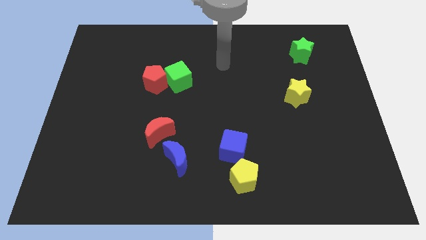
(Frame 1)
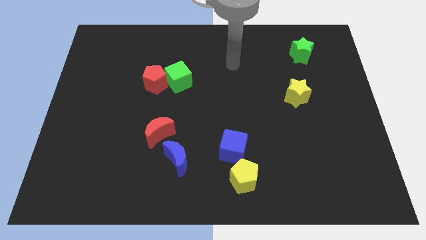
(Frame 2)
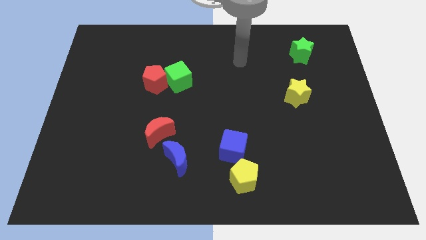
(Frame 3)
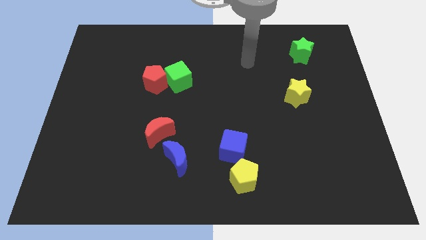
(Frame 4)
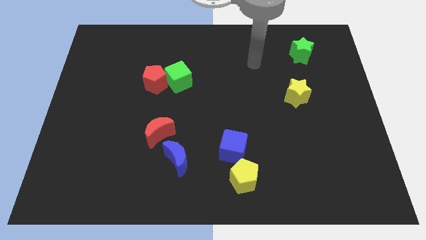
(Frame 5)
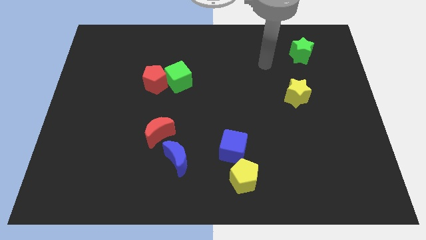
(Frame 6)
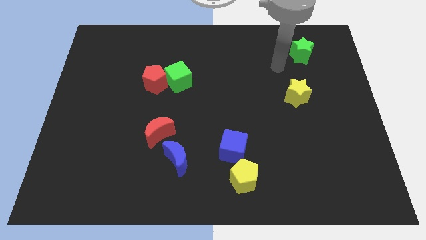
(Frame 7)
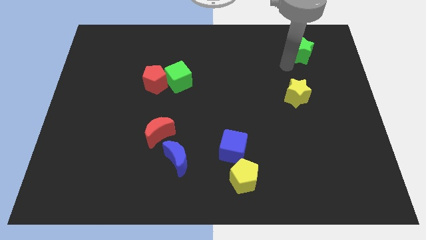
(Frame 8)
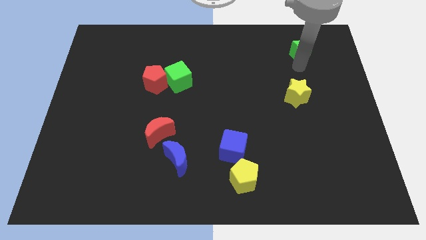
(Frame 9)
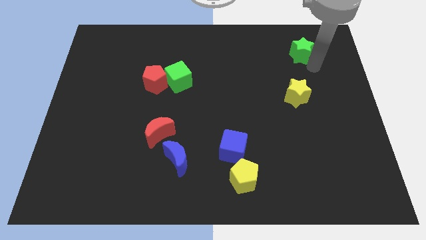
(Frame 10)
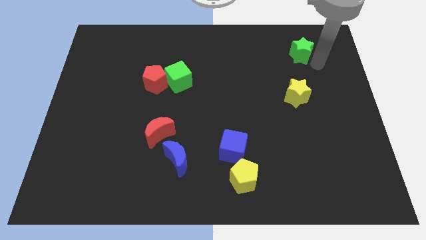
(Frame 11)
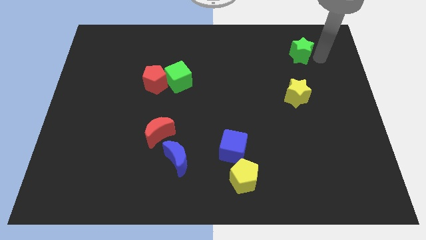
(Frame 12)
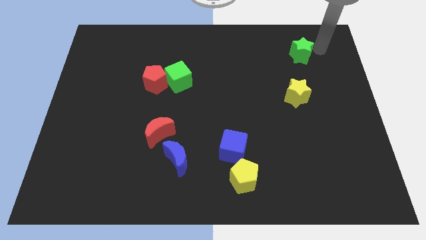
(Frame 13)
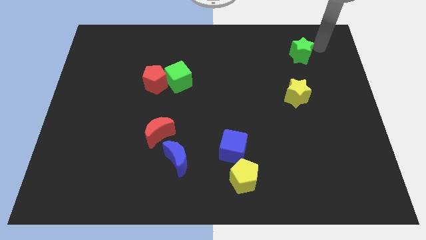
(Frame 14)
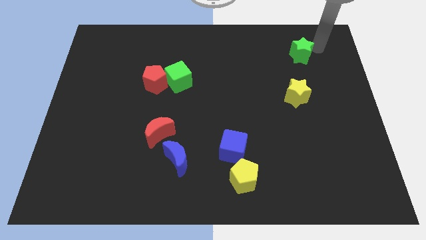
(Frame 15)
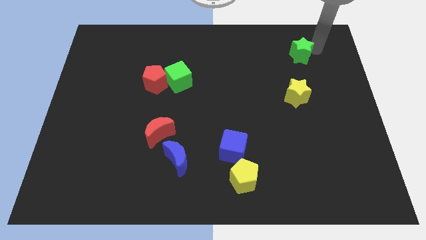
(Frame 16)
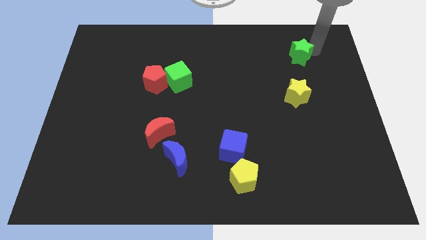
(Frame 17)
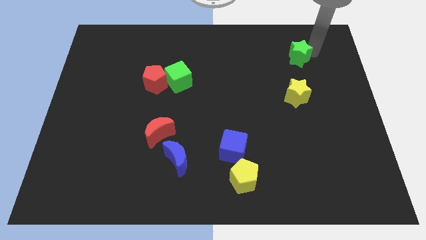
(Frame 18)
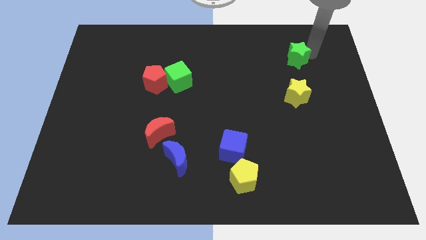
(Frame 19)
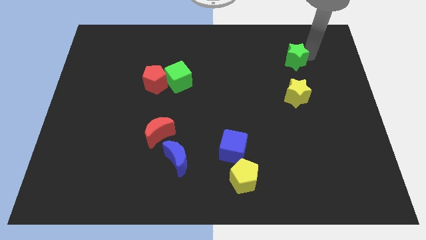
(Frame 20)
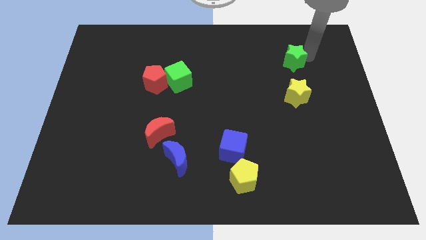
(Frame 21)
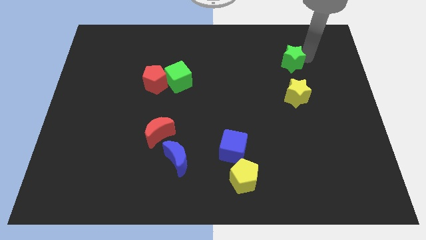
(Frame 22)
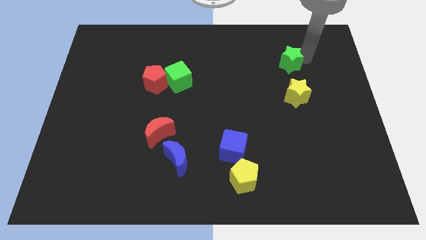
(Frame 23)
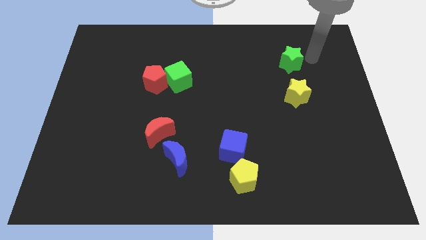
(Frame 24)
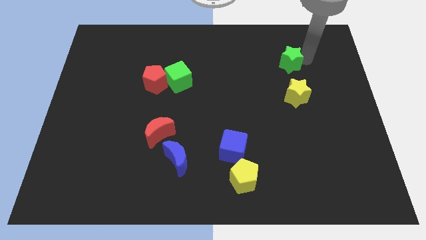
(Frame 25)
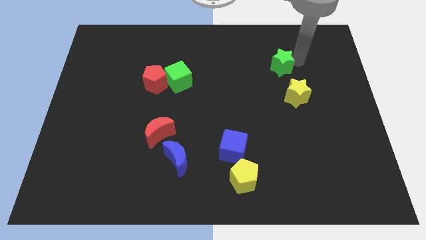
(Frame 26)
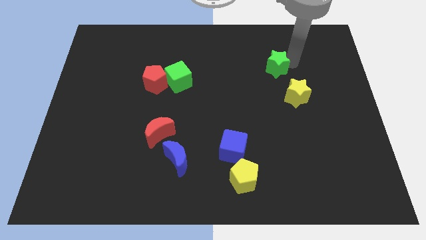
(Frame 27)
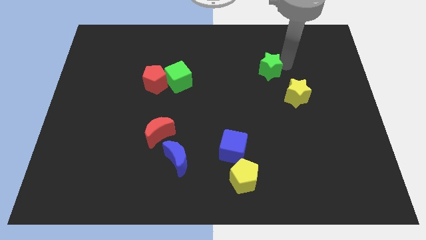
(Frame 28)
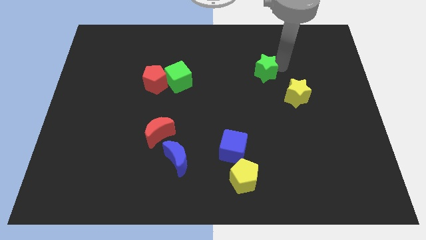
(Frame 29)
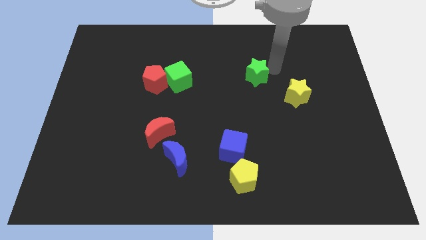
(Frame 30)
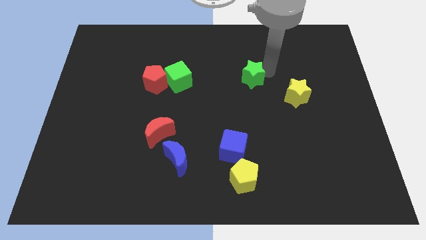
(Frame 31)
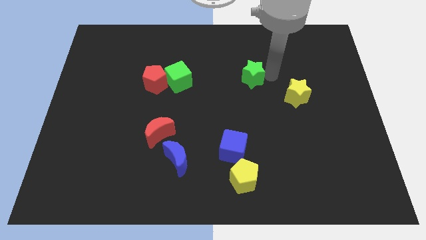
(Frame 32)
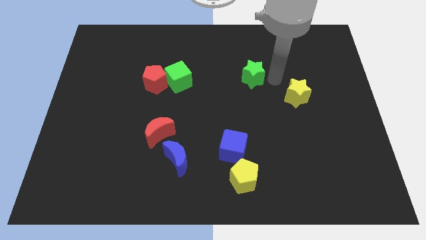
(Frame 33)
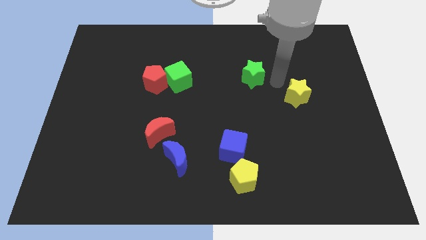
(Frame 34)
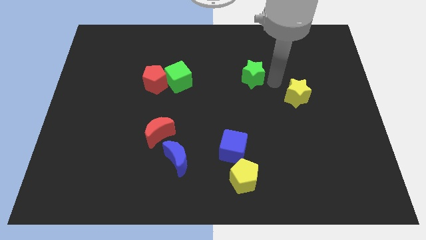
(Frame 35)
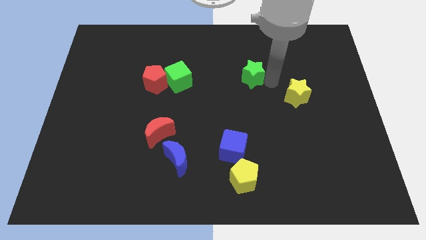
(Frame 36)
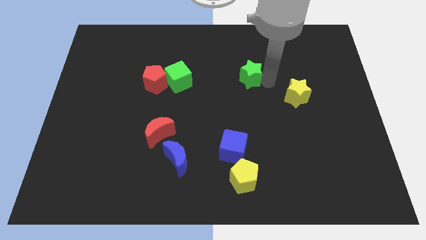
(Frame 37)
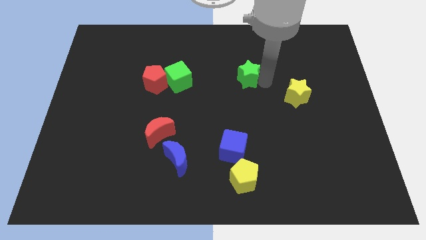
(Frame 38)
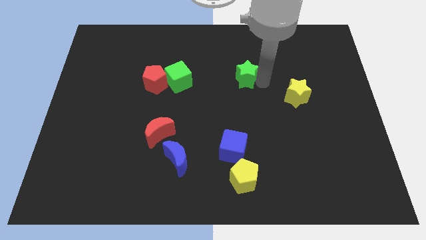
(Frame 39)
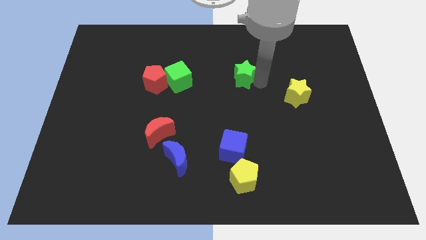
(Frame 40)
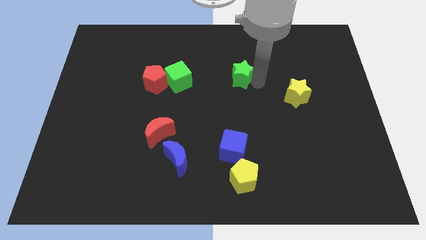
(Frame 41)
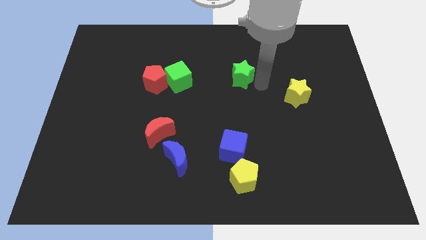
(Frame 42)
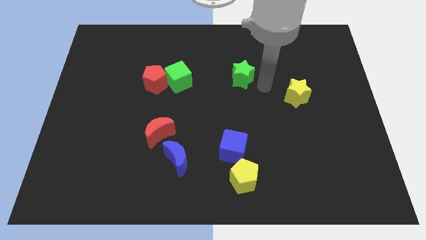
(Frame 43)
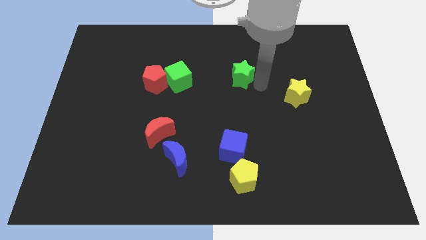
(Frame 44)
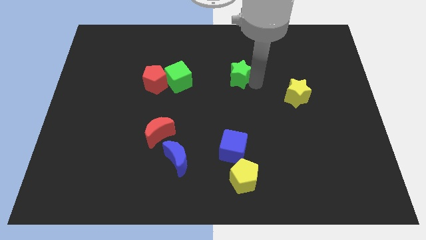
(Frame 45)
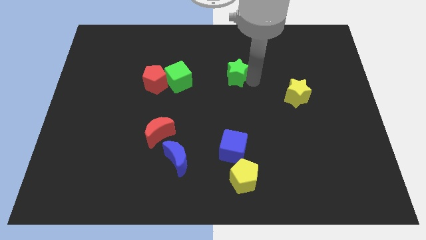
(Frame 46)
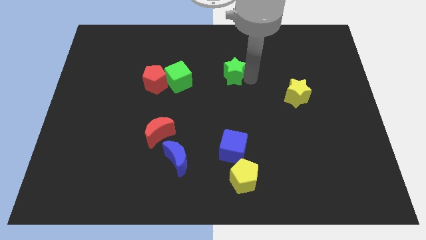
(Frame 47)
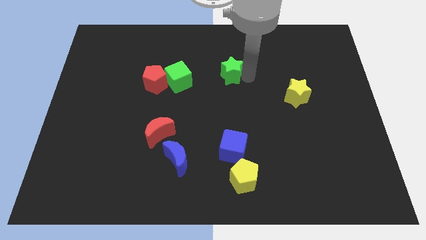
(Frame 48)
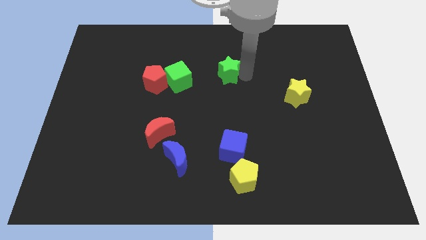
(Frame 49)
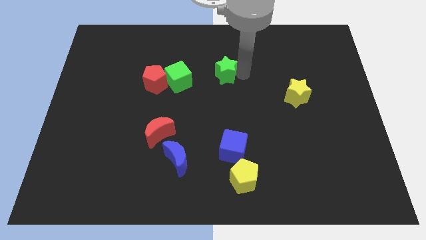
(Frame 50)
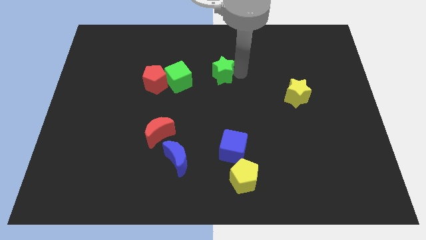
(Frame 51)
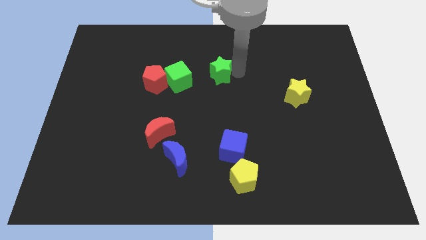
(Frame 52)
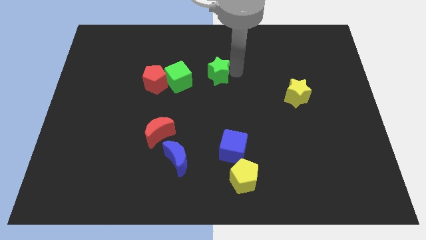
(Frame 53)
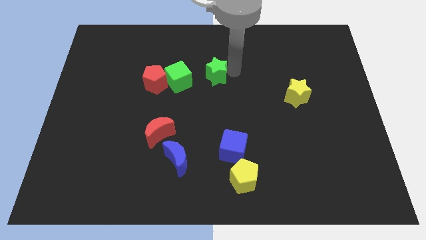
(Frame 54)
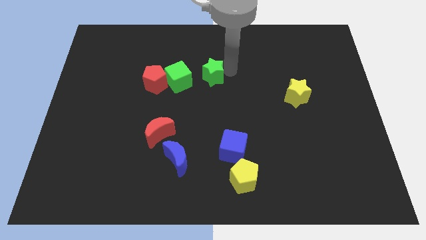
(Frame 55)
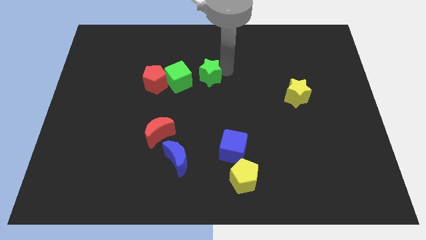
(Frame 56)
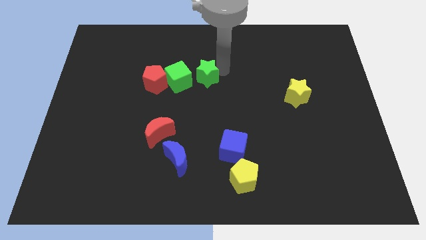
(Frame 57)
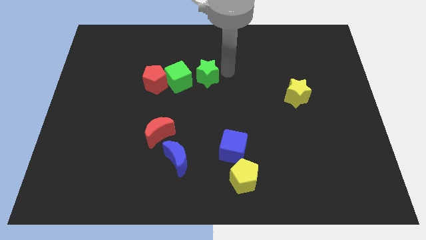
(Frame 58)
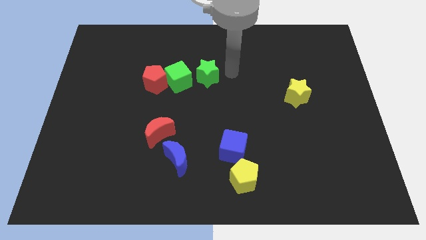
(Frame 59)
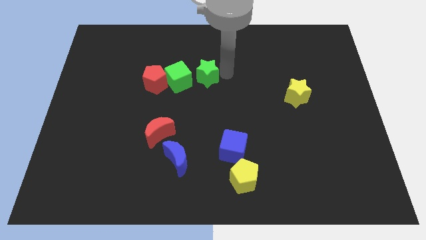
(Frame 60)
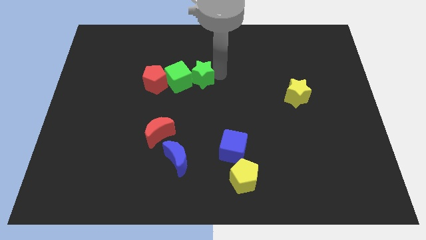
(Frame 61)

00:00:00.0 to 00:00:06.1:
slide the green star next to the green cube

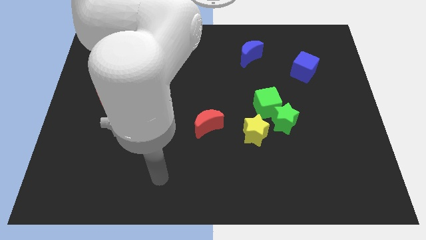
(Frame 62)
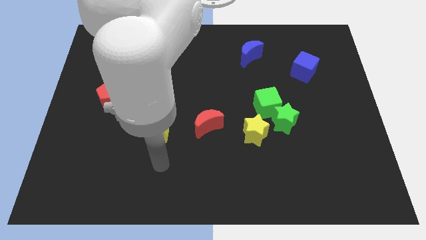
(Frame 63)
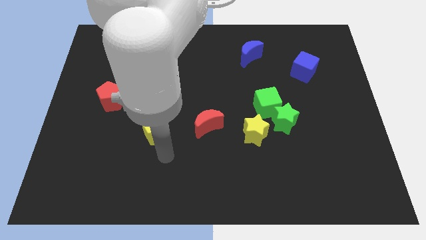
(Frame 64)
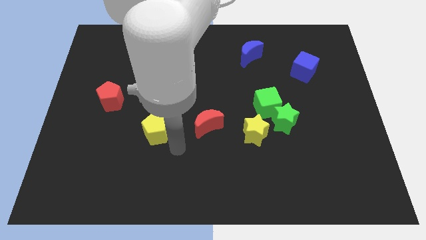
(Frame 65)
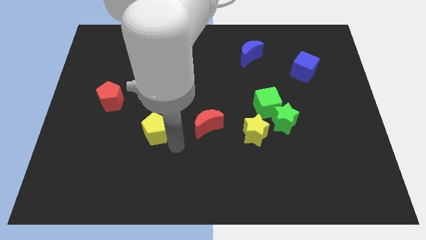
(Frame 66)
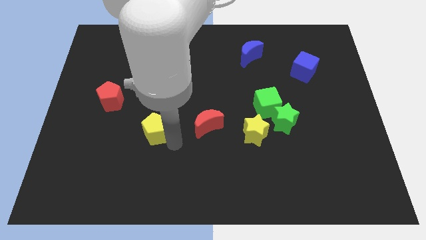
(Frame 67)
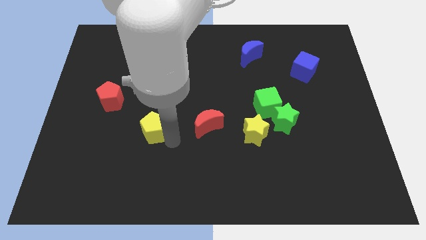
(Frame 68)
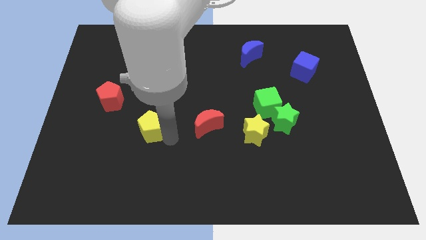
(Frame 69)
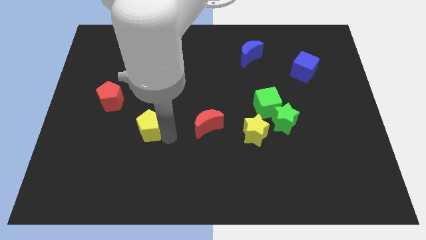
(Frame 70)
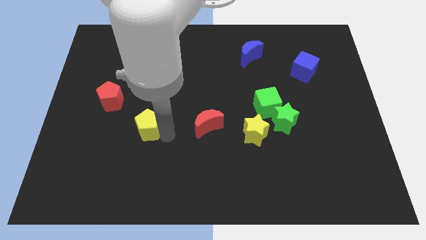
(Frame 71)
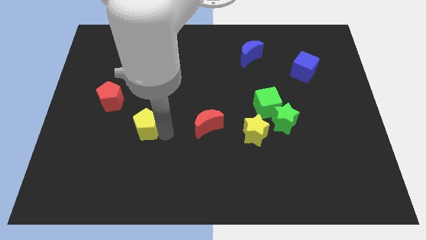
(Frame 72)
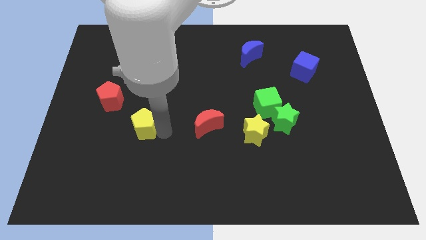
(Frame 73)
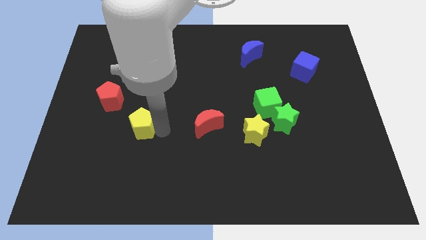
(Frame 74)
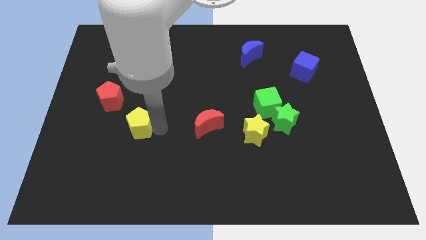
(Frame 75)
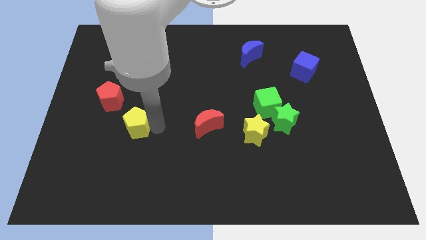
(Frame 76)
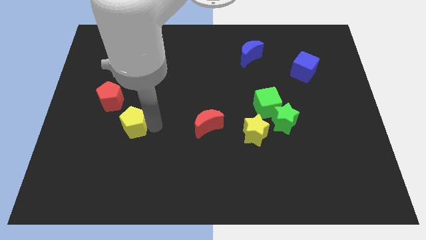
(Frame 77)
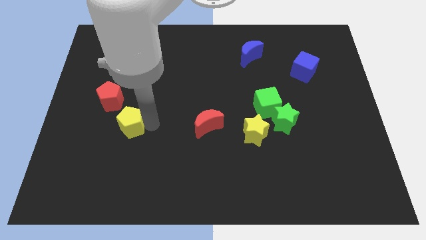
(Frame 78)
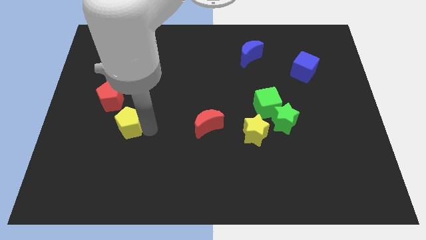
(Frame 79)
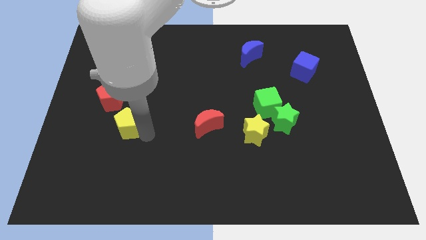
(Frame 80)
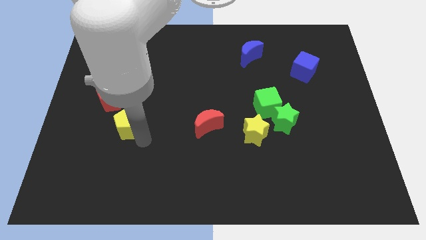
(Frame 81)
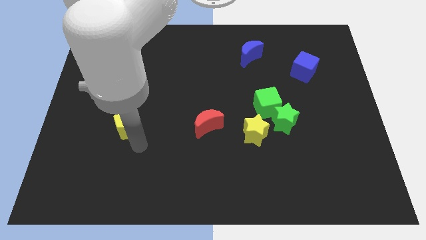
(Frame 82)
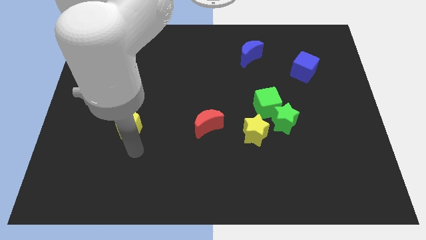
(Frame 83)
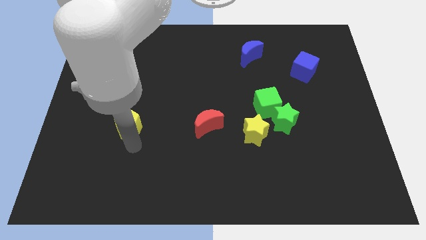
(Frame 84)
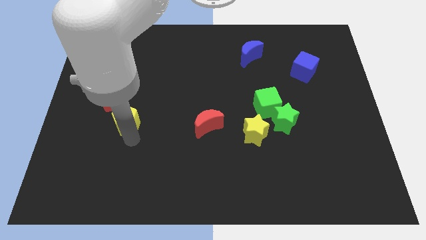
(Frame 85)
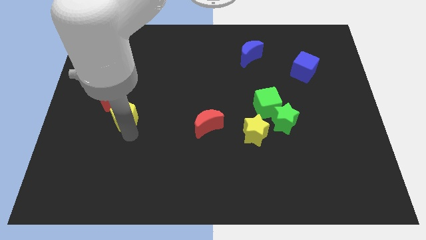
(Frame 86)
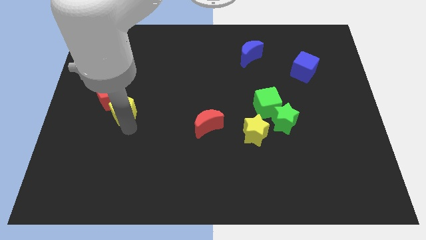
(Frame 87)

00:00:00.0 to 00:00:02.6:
put the yellow pentagon to the red pentagon

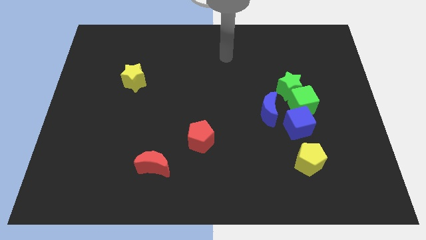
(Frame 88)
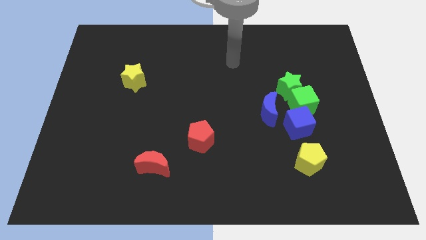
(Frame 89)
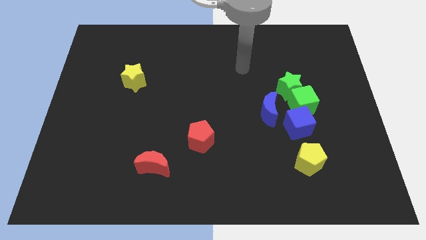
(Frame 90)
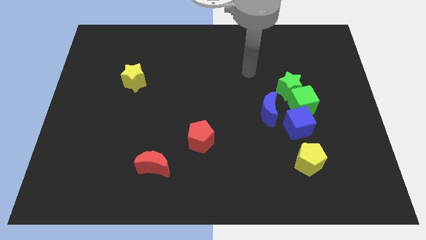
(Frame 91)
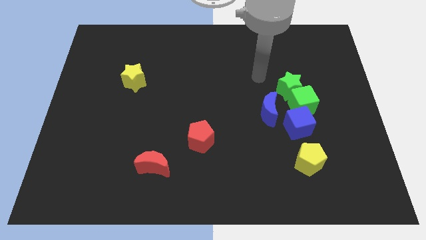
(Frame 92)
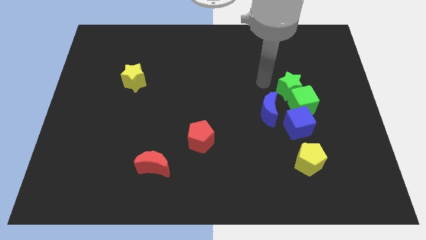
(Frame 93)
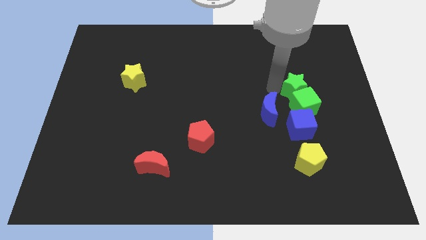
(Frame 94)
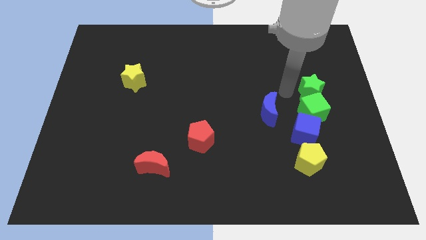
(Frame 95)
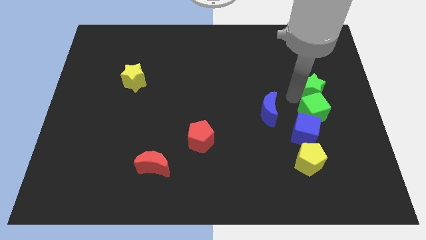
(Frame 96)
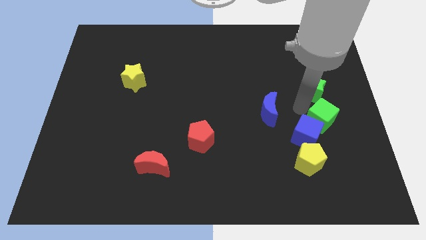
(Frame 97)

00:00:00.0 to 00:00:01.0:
put the blue cube next to the yellow pentagon
